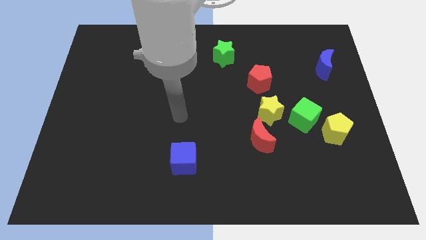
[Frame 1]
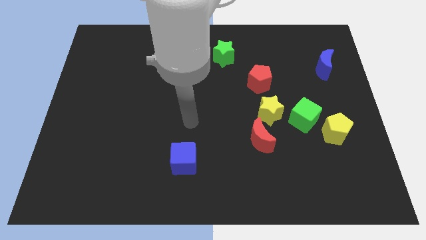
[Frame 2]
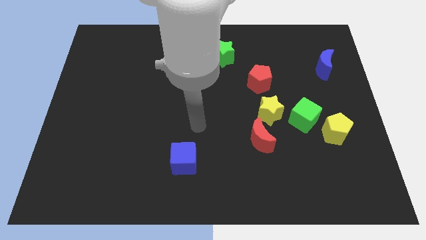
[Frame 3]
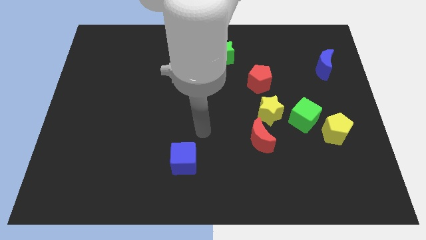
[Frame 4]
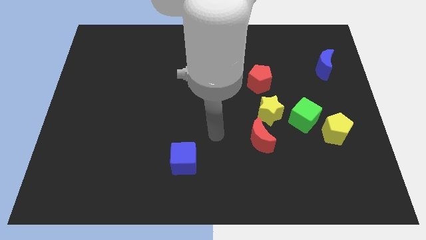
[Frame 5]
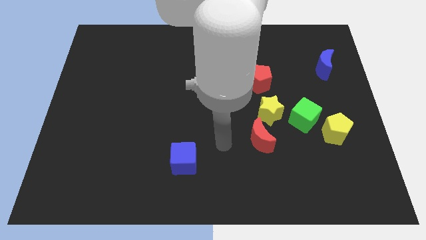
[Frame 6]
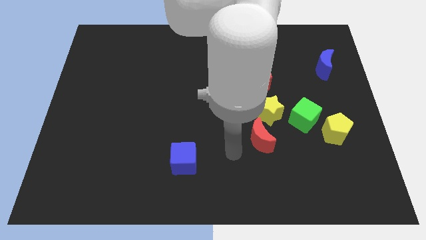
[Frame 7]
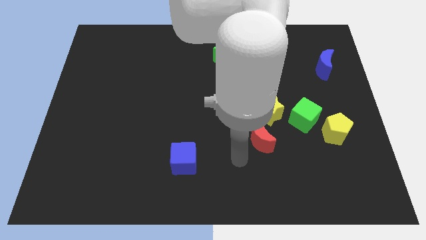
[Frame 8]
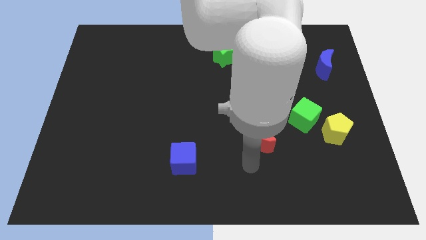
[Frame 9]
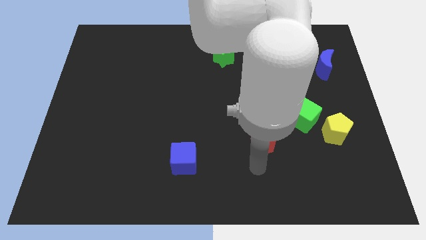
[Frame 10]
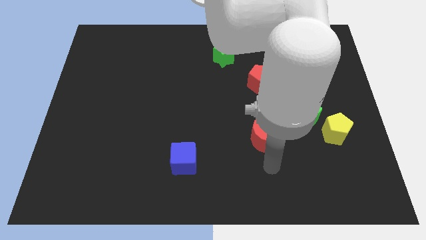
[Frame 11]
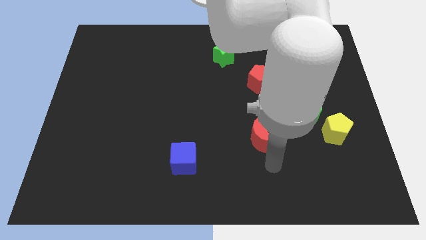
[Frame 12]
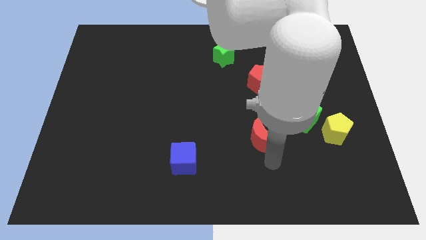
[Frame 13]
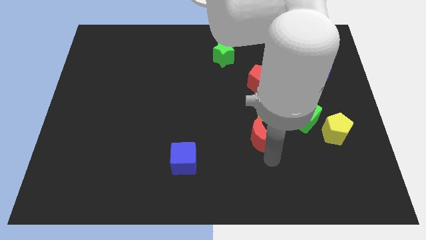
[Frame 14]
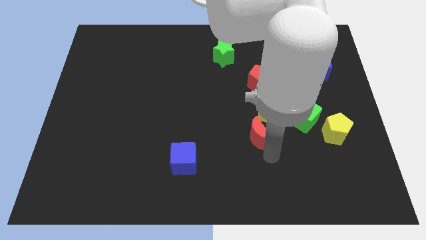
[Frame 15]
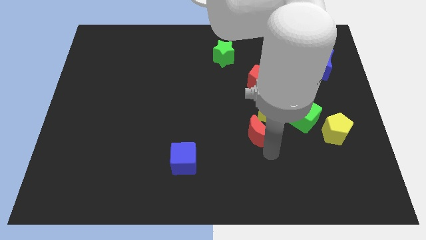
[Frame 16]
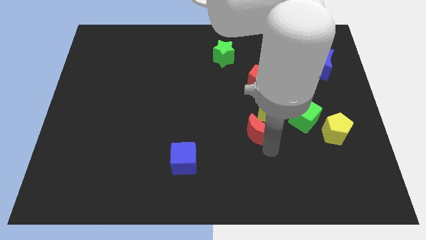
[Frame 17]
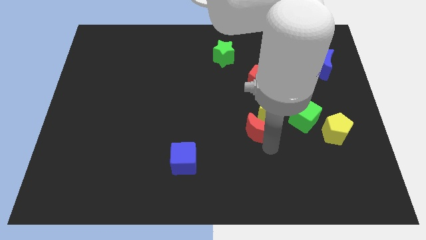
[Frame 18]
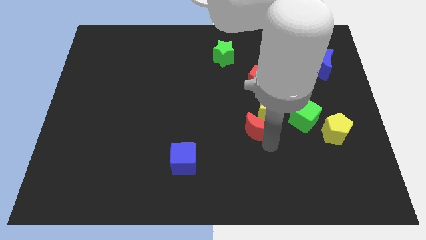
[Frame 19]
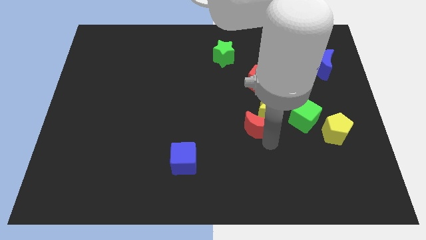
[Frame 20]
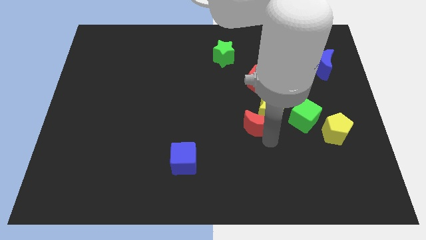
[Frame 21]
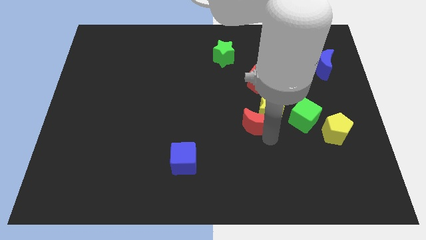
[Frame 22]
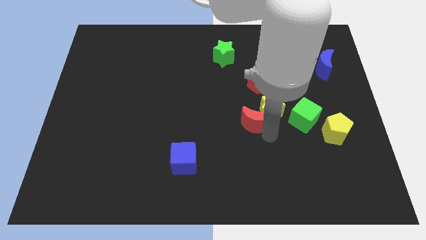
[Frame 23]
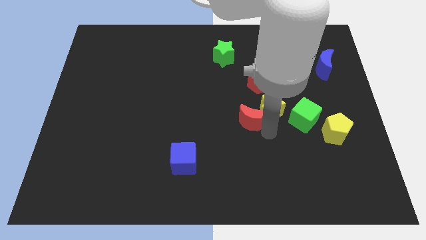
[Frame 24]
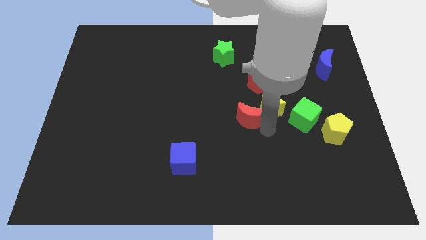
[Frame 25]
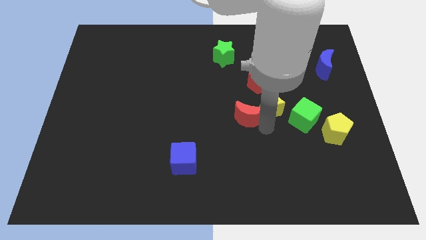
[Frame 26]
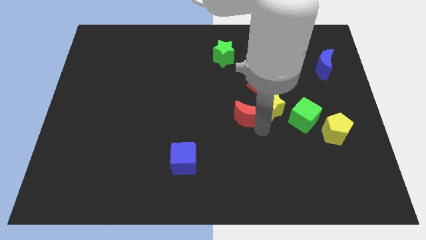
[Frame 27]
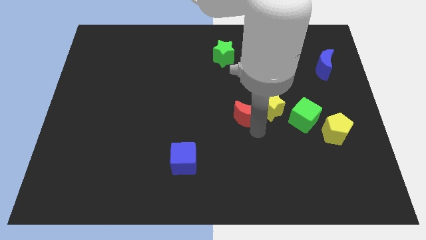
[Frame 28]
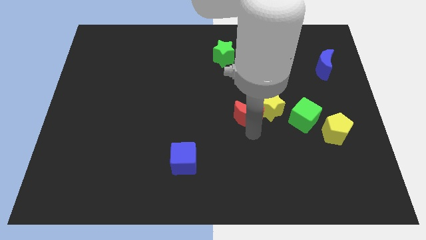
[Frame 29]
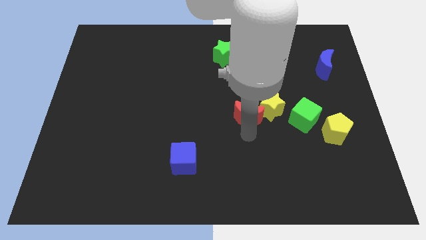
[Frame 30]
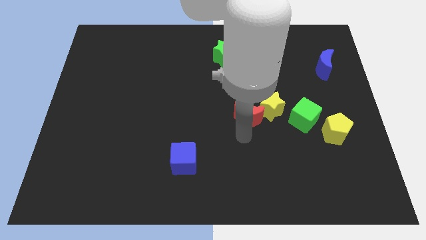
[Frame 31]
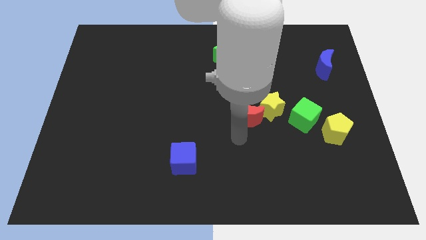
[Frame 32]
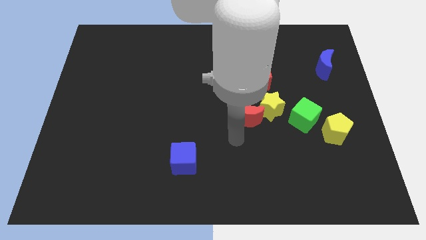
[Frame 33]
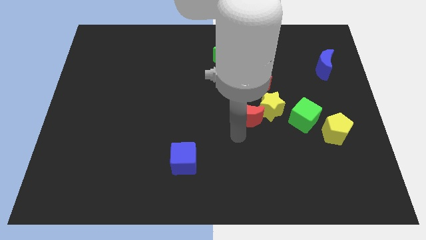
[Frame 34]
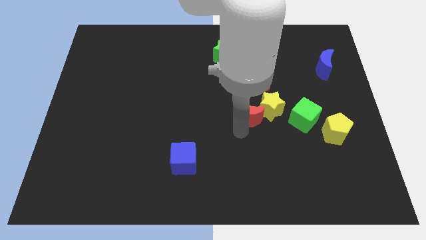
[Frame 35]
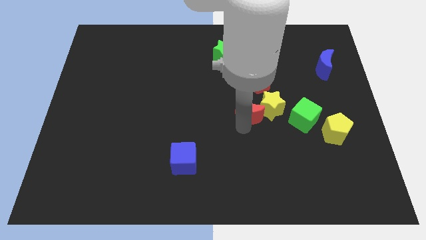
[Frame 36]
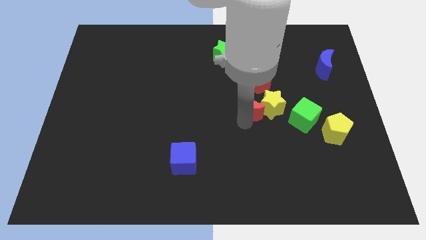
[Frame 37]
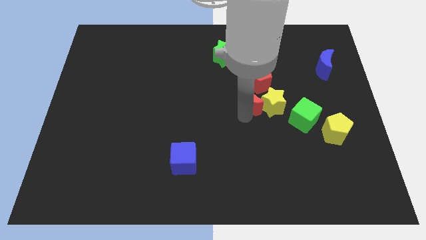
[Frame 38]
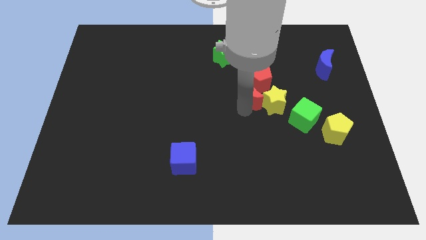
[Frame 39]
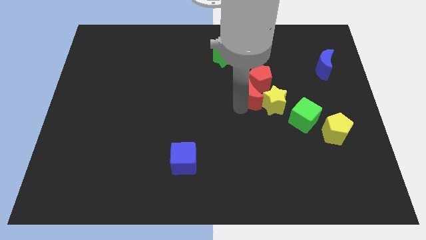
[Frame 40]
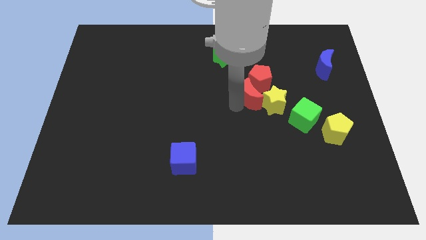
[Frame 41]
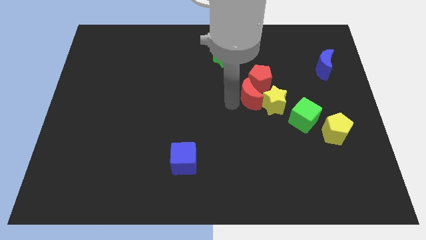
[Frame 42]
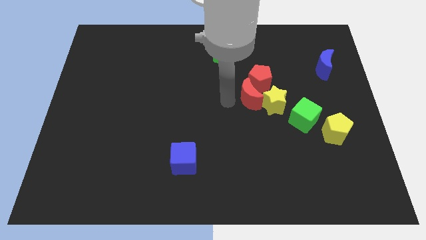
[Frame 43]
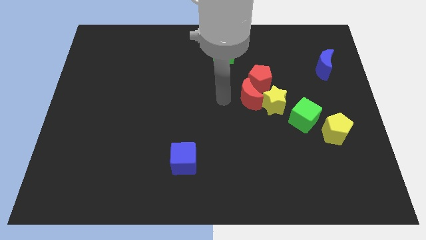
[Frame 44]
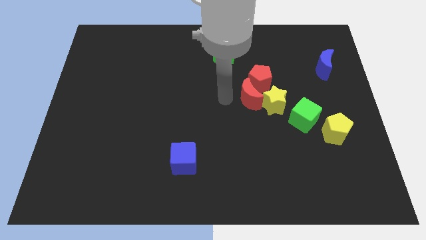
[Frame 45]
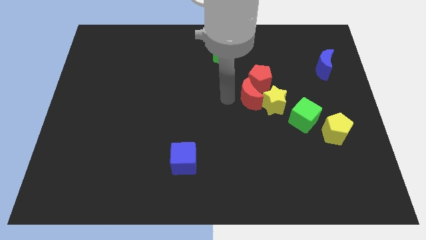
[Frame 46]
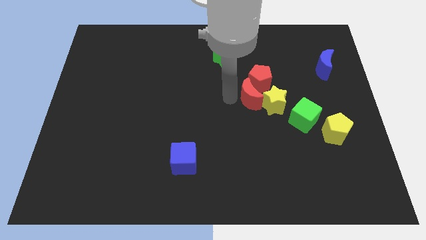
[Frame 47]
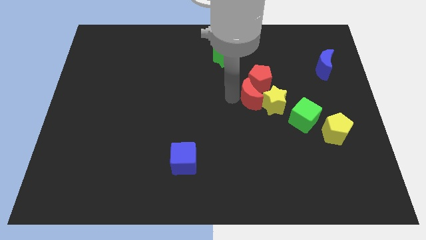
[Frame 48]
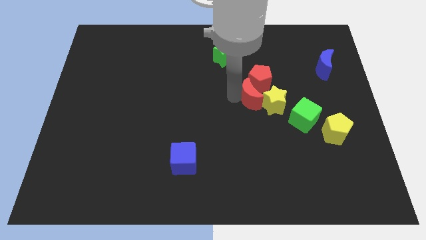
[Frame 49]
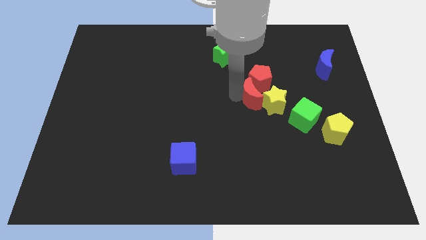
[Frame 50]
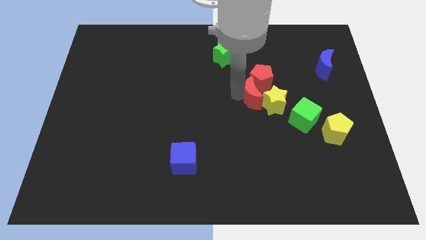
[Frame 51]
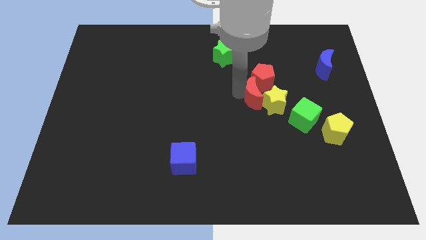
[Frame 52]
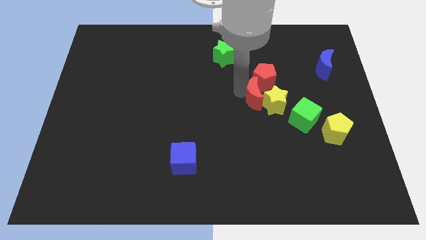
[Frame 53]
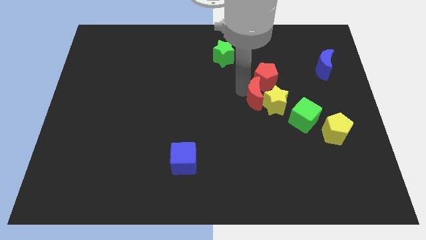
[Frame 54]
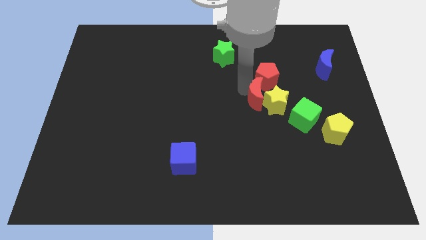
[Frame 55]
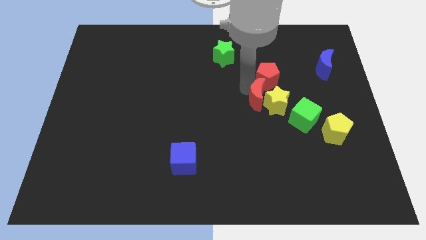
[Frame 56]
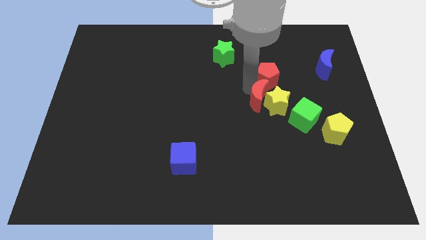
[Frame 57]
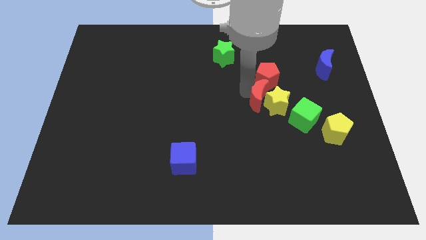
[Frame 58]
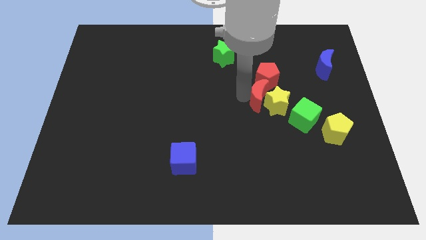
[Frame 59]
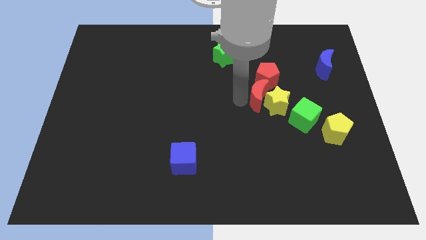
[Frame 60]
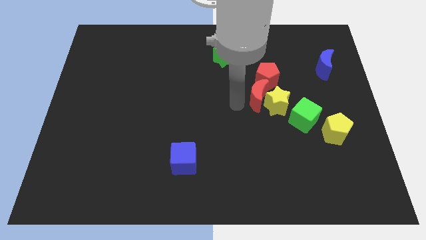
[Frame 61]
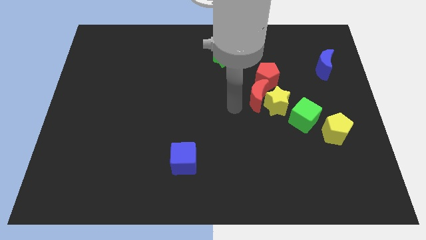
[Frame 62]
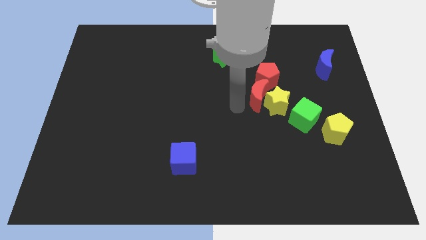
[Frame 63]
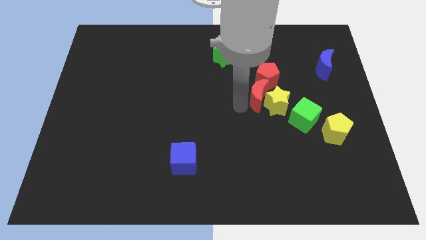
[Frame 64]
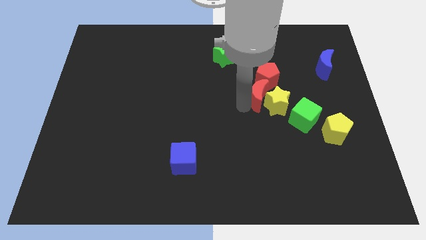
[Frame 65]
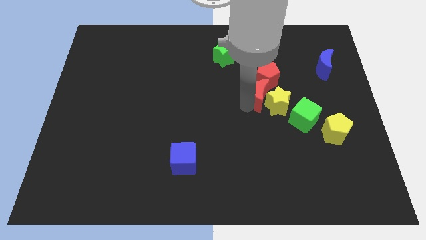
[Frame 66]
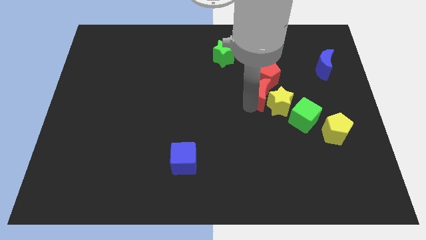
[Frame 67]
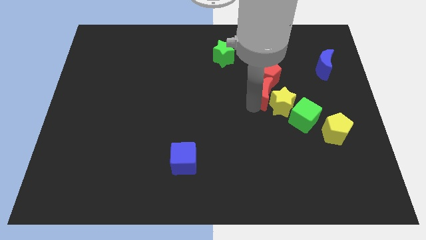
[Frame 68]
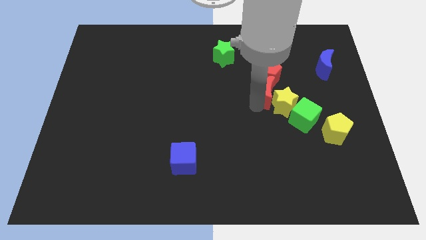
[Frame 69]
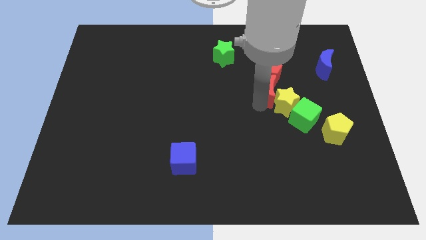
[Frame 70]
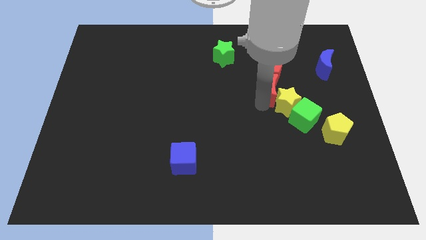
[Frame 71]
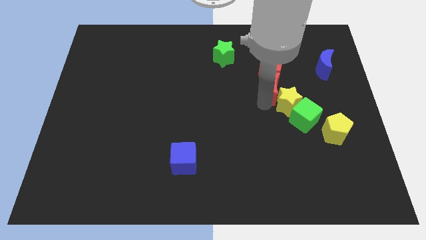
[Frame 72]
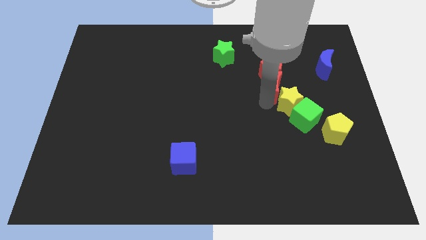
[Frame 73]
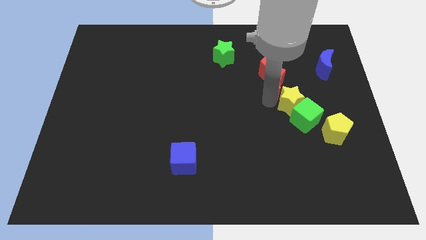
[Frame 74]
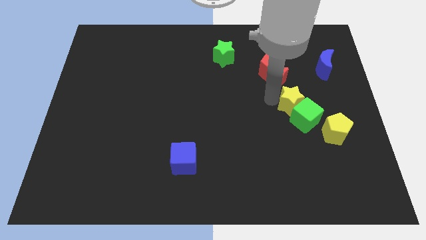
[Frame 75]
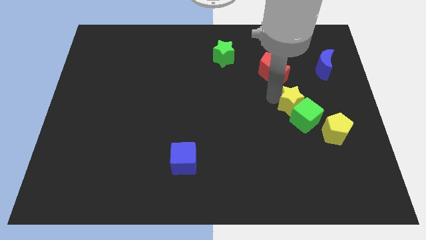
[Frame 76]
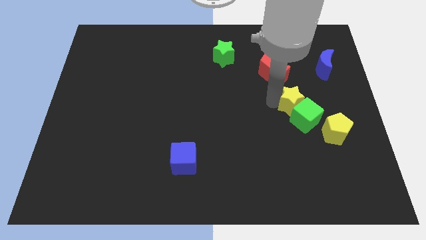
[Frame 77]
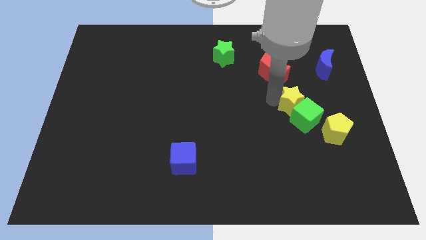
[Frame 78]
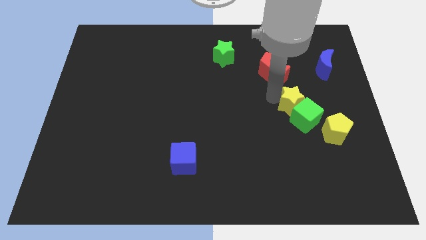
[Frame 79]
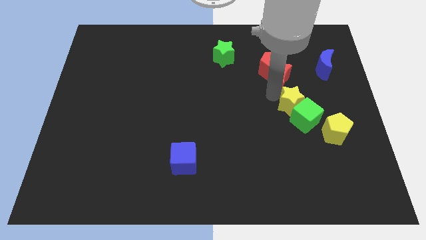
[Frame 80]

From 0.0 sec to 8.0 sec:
push the red moon left of the blue moon

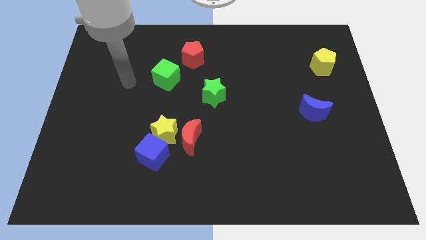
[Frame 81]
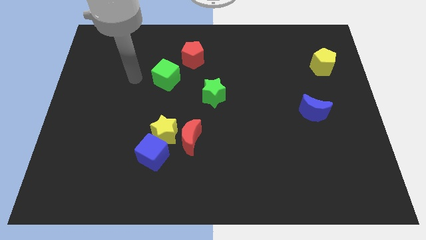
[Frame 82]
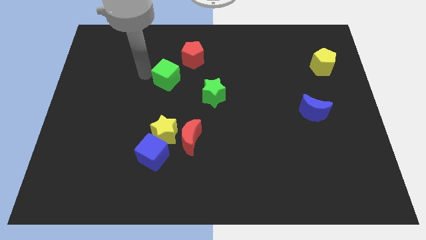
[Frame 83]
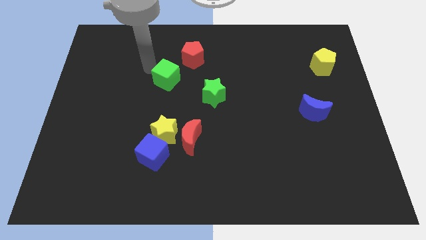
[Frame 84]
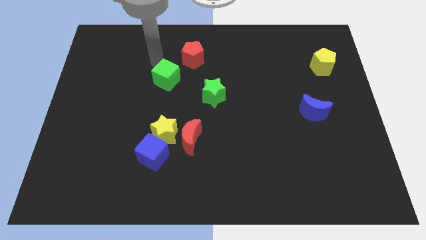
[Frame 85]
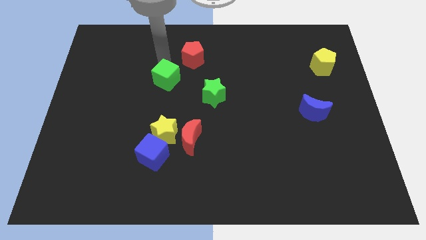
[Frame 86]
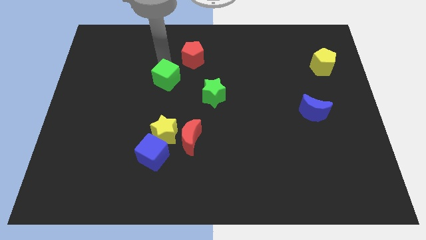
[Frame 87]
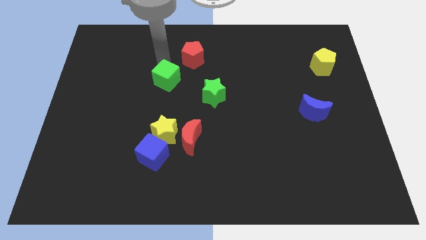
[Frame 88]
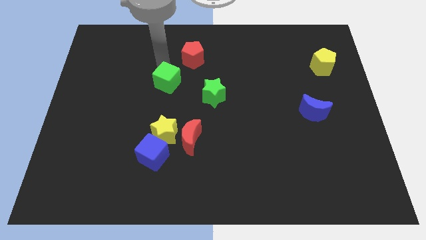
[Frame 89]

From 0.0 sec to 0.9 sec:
put the green cube just left of the green star
